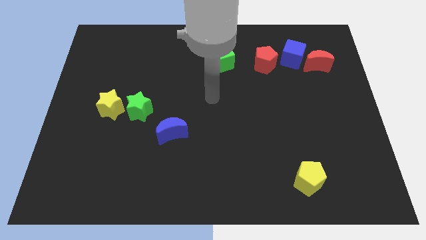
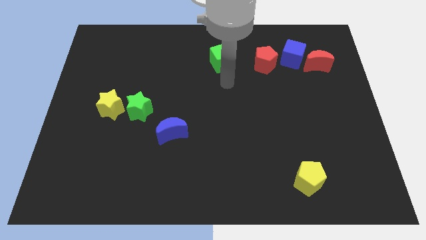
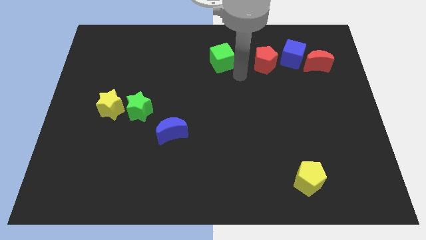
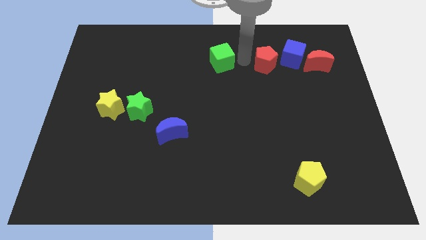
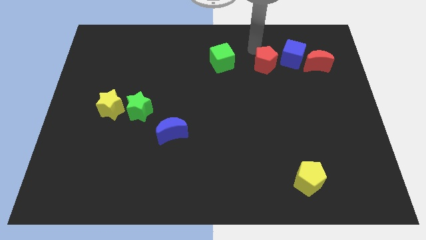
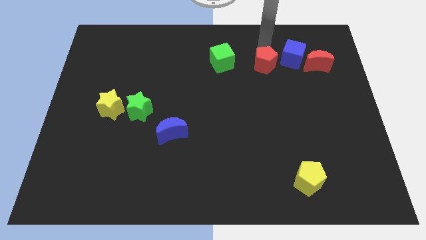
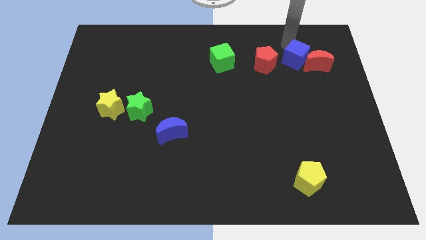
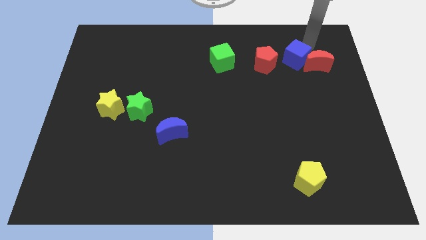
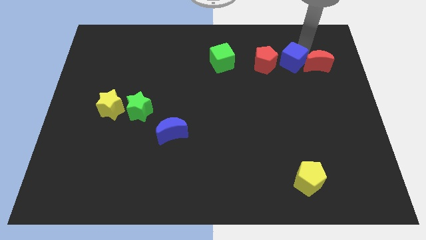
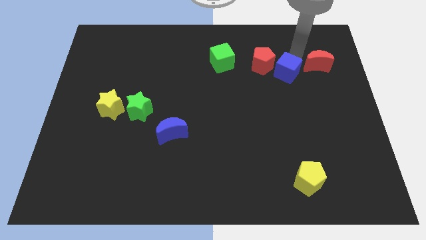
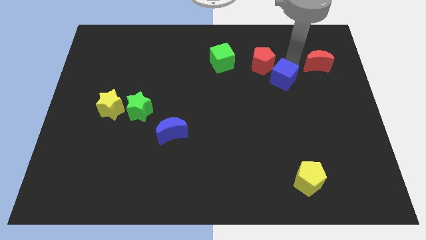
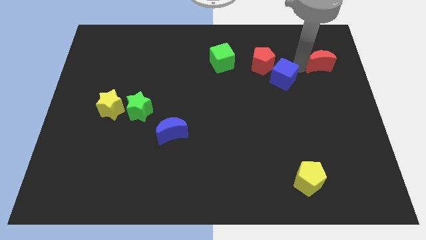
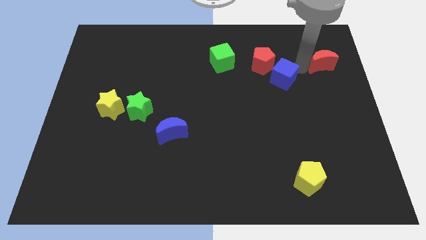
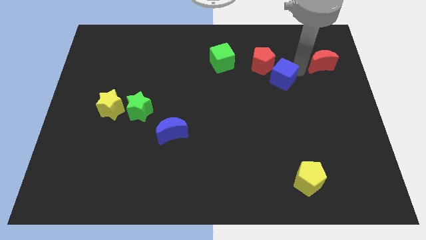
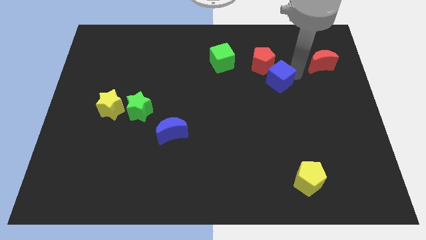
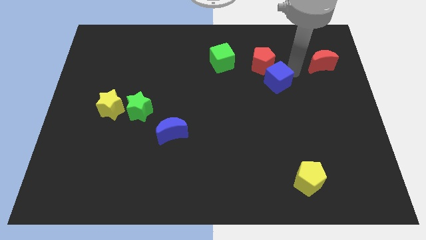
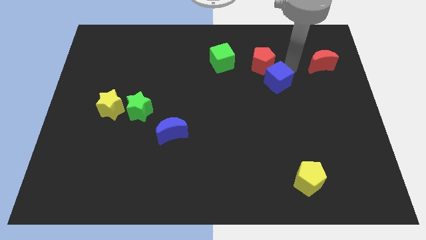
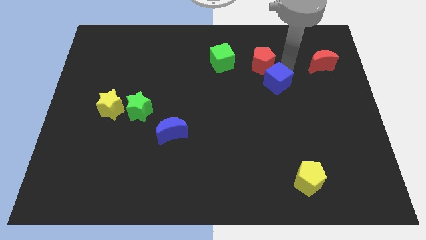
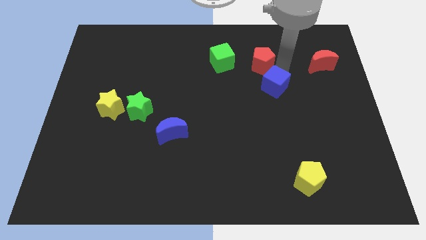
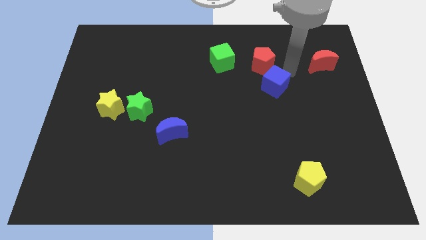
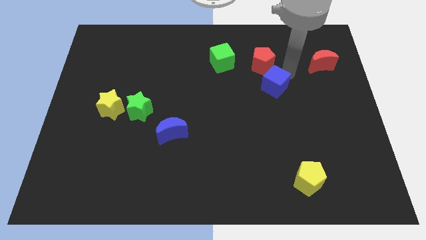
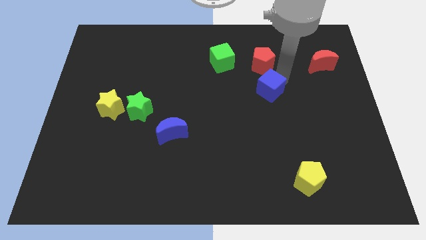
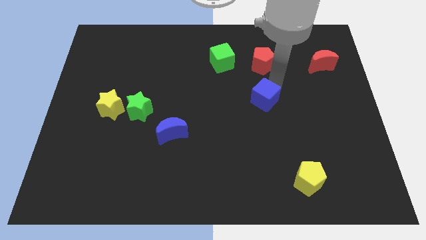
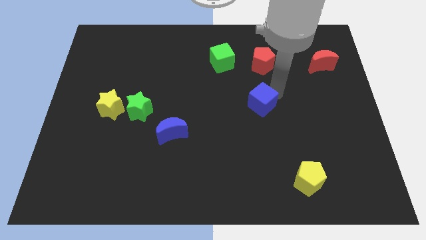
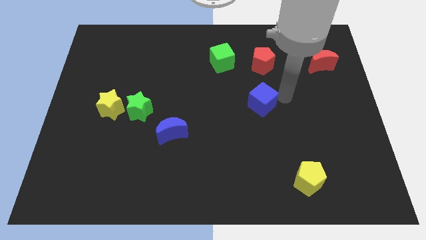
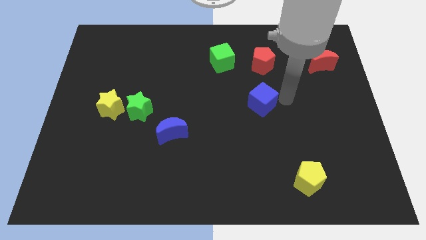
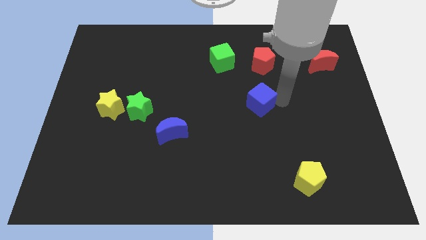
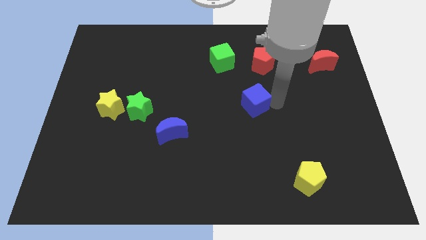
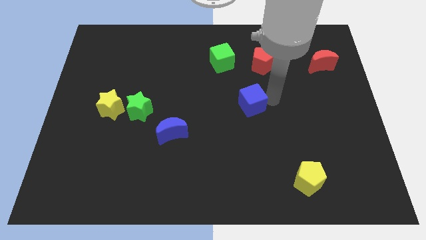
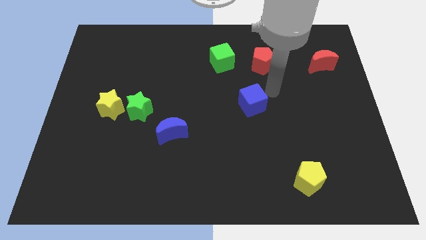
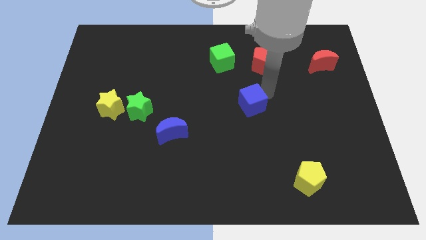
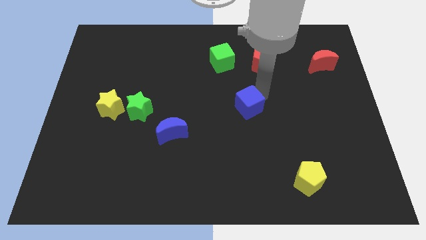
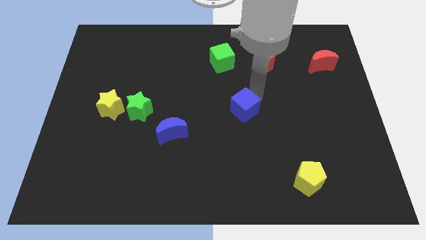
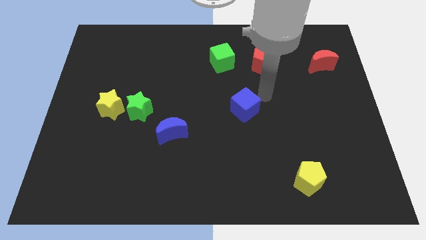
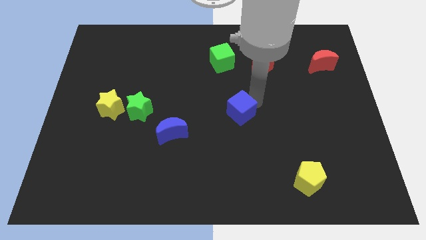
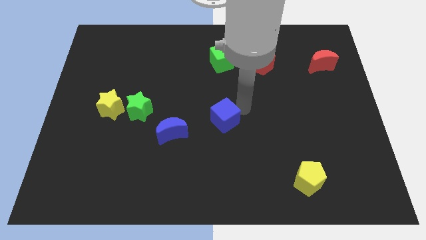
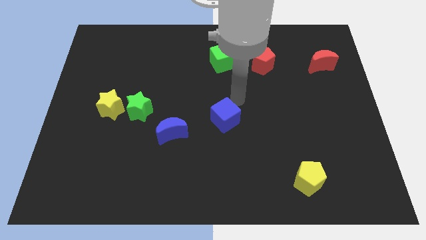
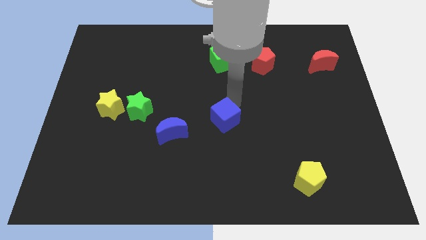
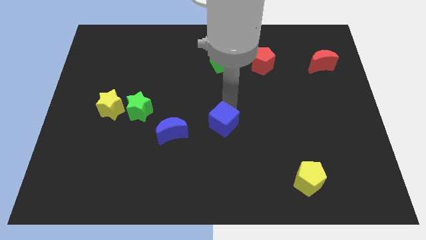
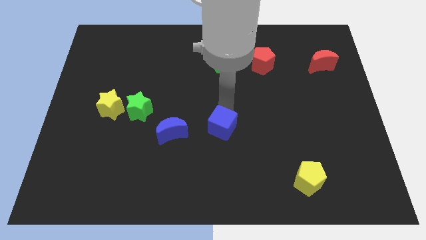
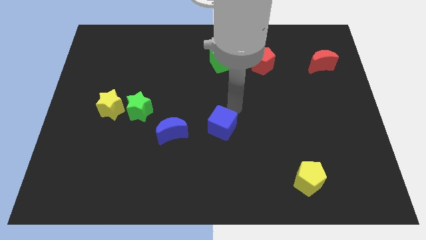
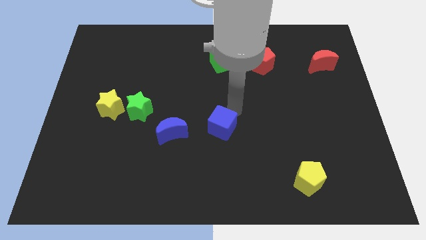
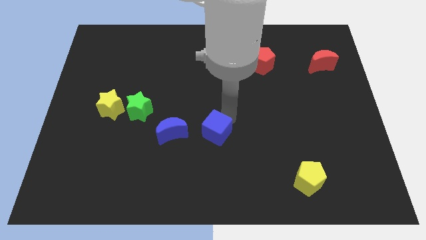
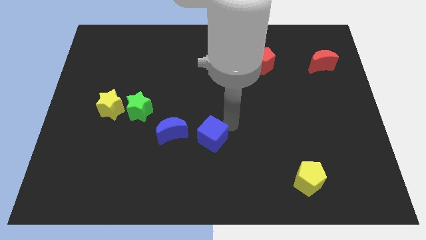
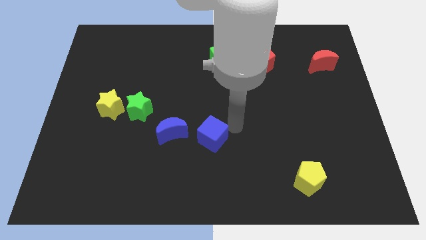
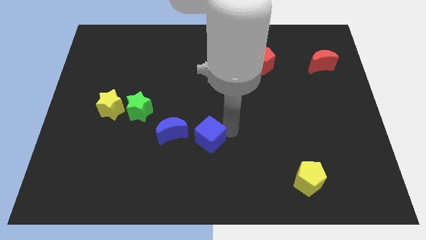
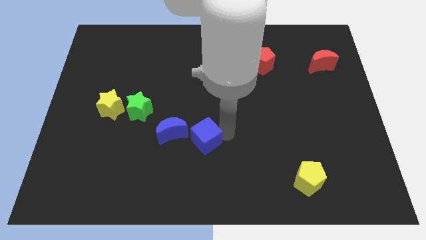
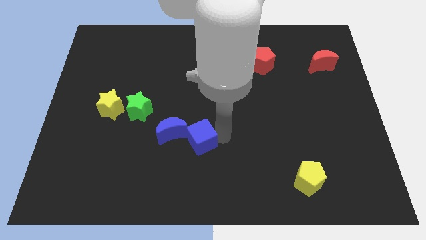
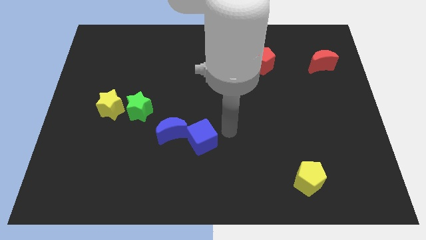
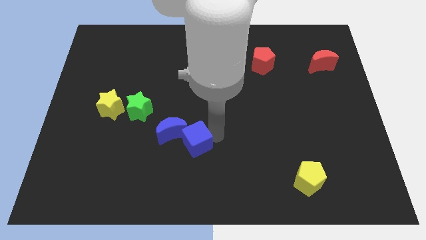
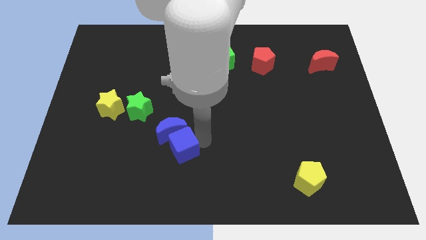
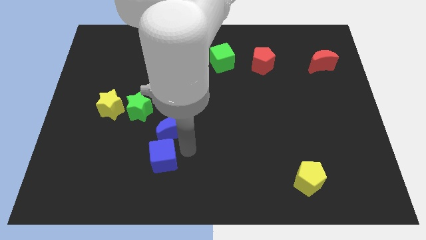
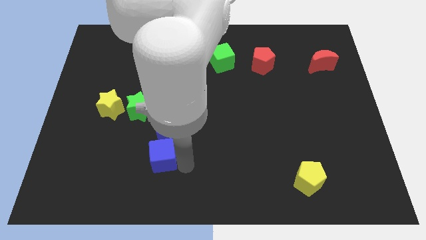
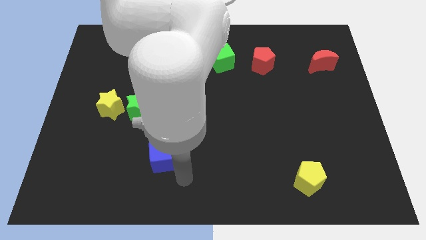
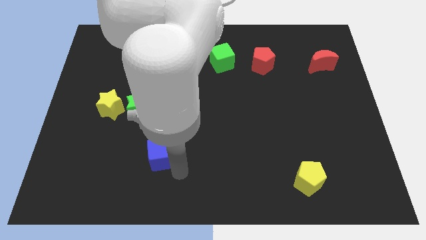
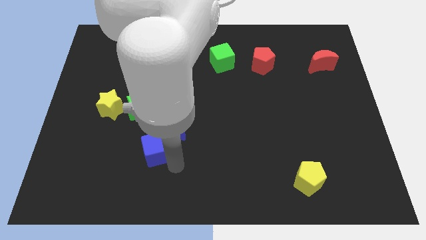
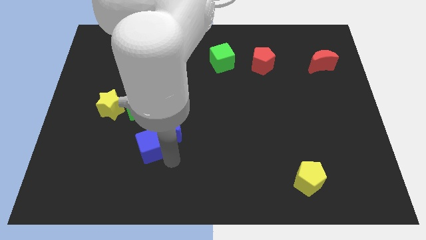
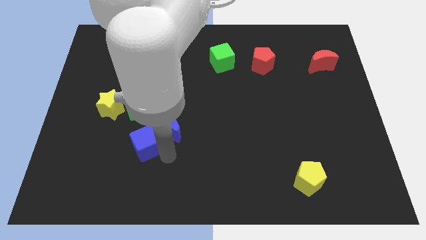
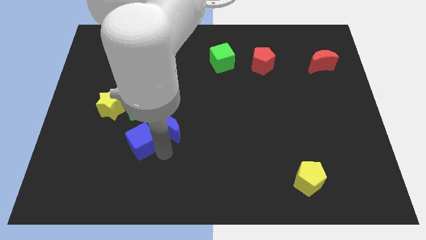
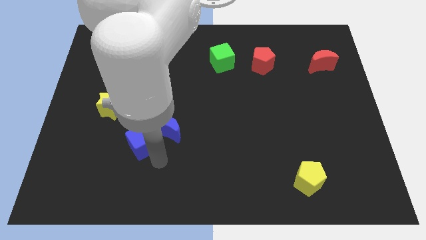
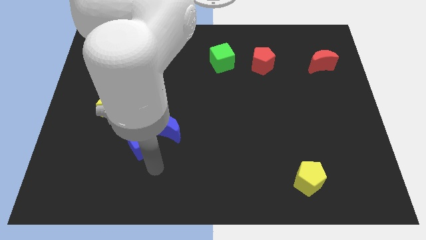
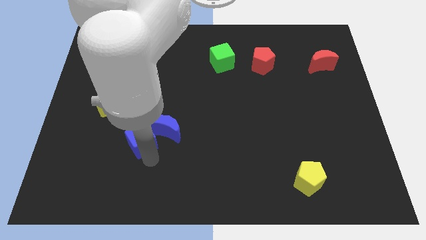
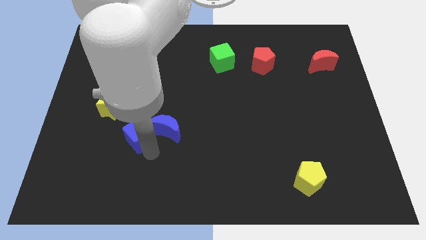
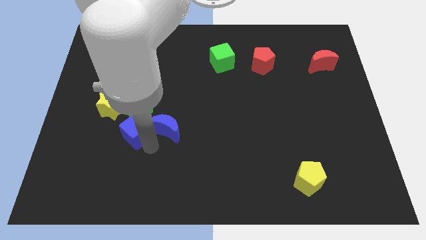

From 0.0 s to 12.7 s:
put the blue cube to the bottom left of the green star
